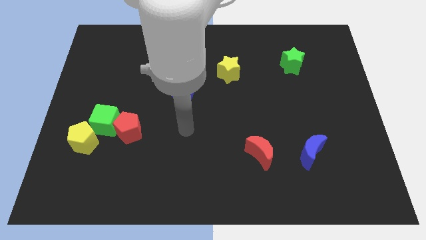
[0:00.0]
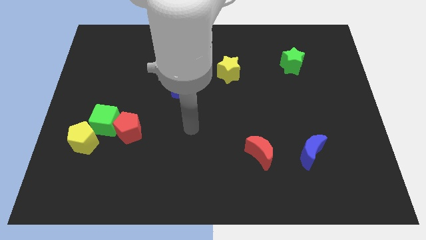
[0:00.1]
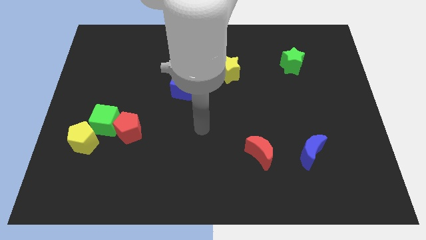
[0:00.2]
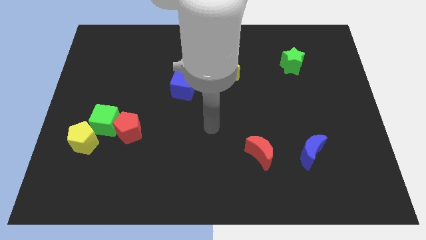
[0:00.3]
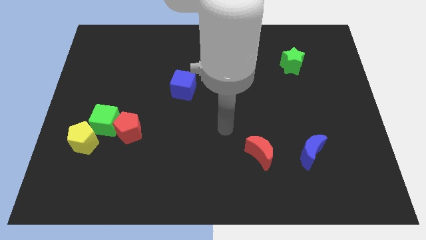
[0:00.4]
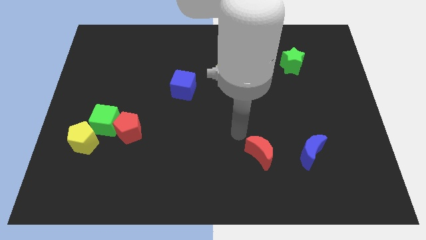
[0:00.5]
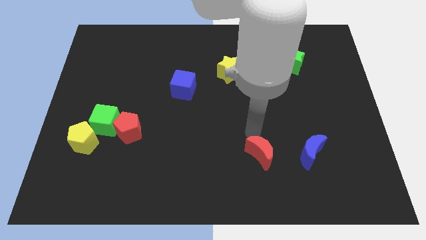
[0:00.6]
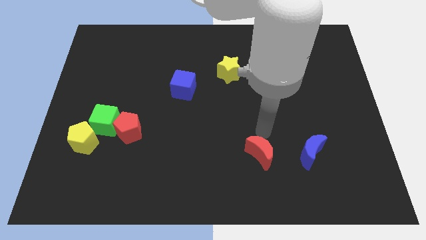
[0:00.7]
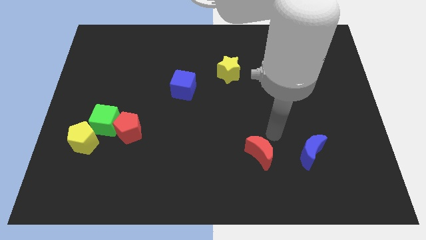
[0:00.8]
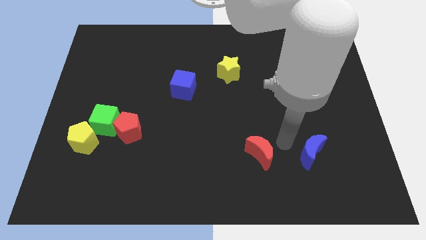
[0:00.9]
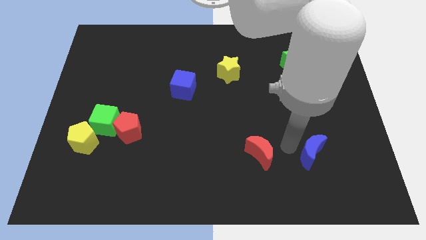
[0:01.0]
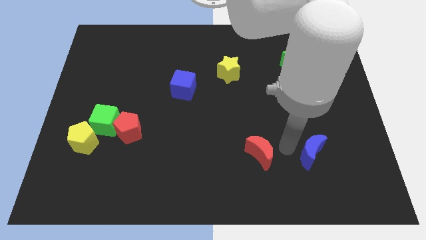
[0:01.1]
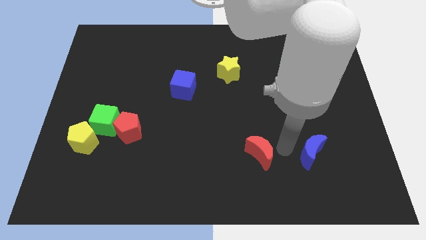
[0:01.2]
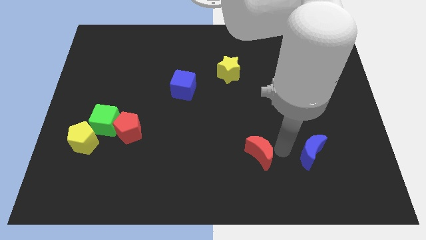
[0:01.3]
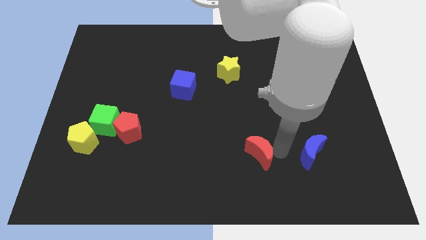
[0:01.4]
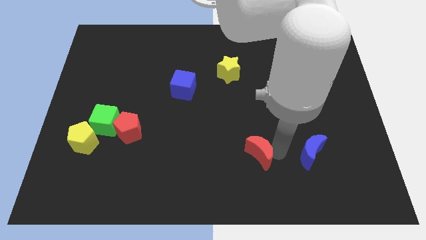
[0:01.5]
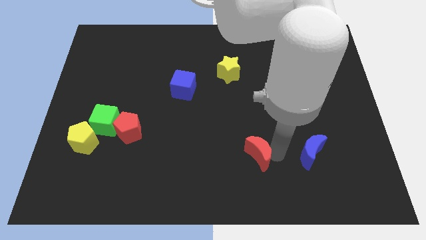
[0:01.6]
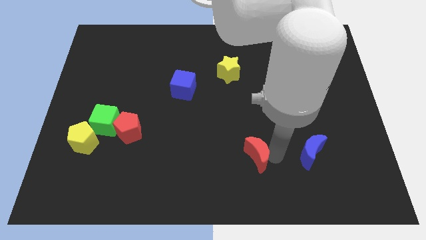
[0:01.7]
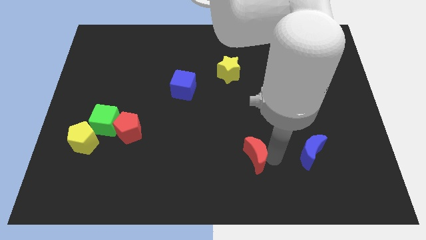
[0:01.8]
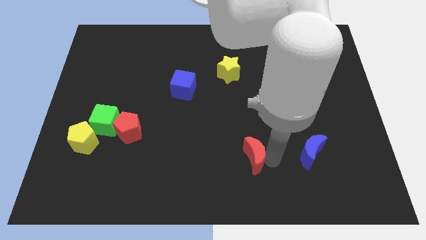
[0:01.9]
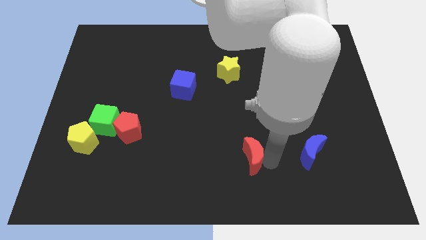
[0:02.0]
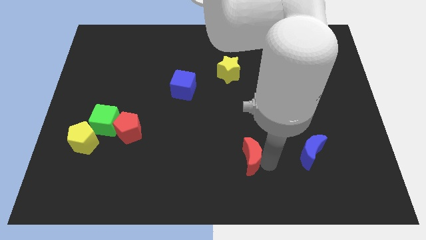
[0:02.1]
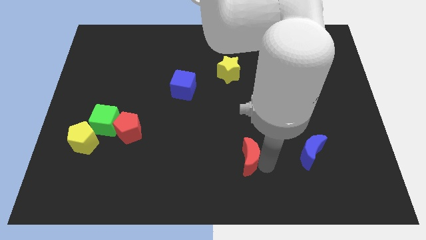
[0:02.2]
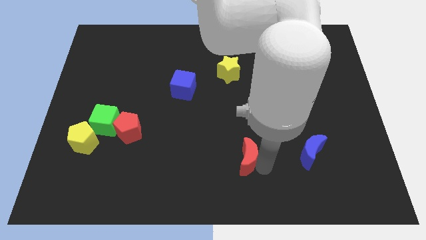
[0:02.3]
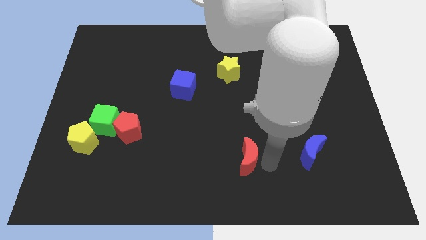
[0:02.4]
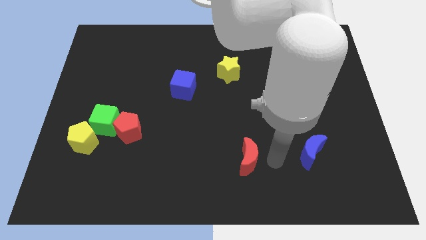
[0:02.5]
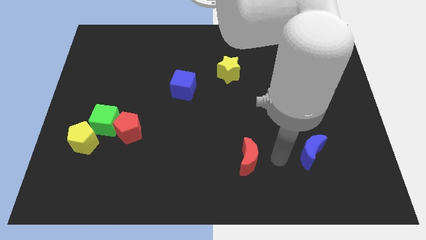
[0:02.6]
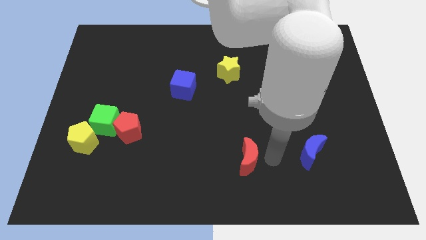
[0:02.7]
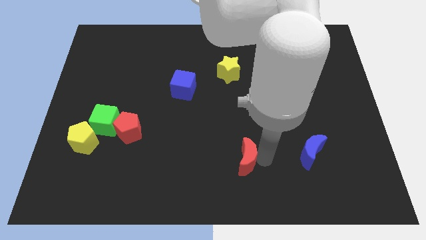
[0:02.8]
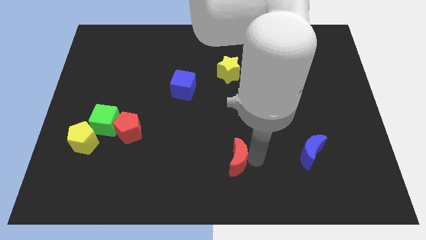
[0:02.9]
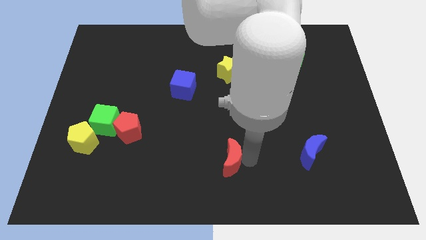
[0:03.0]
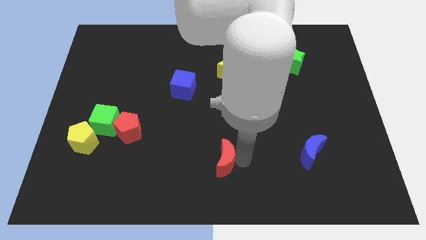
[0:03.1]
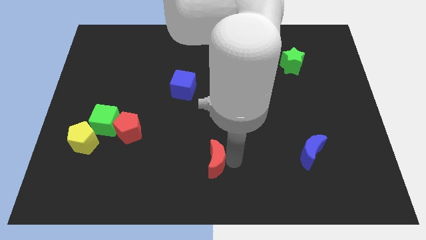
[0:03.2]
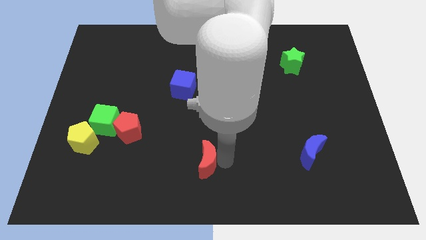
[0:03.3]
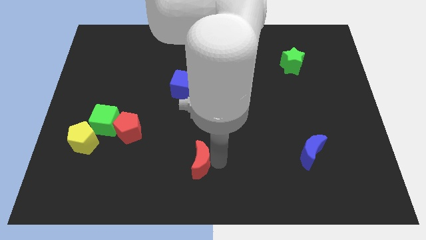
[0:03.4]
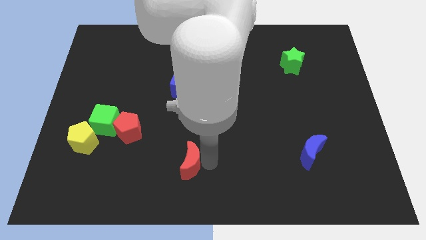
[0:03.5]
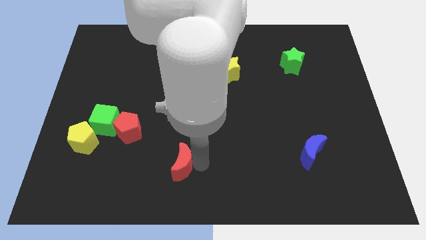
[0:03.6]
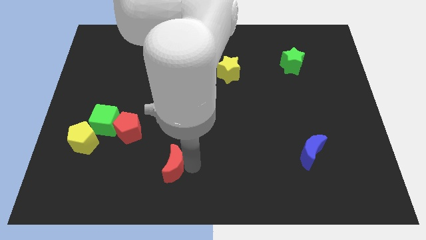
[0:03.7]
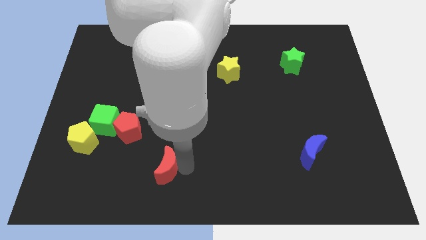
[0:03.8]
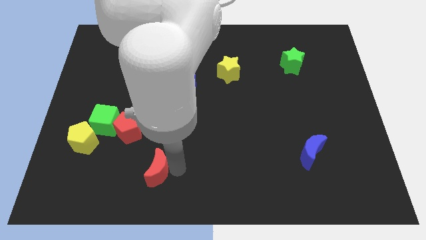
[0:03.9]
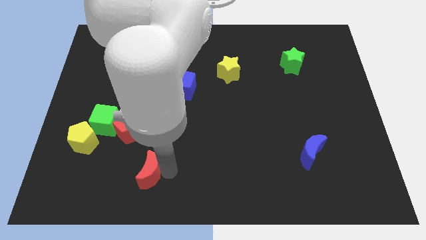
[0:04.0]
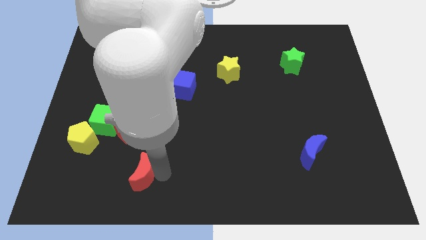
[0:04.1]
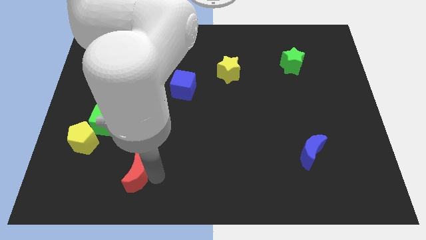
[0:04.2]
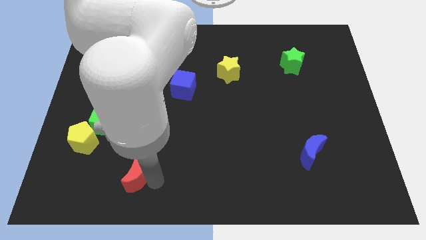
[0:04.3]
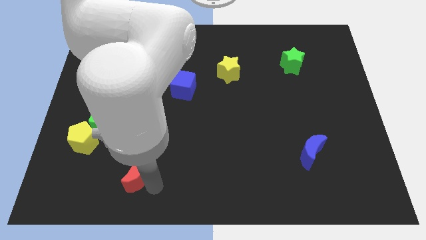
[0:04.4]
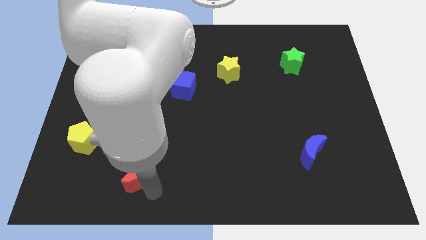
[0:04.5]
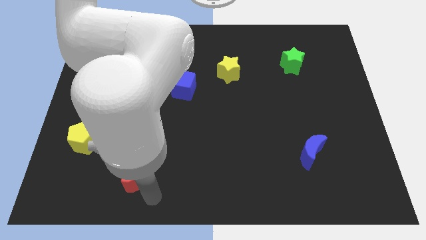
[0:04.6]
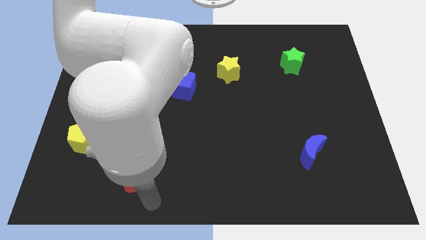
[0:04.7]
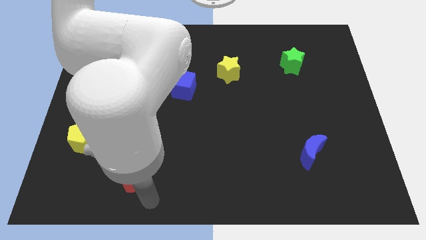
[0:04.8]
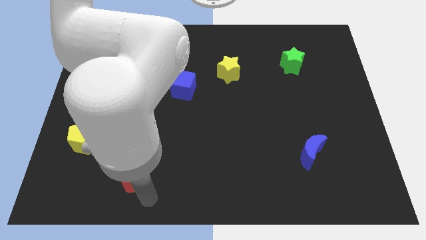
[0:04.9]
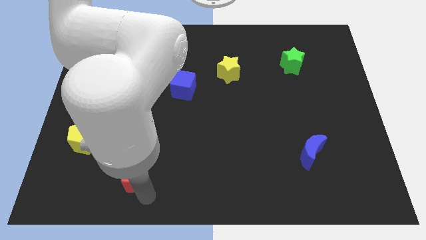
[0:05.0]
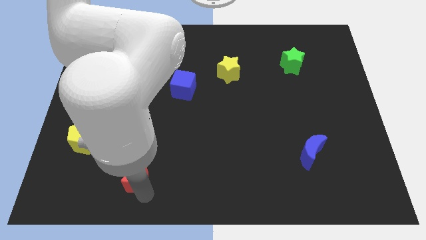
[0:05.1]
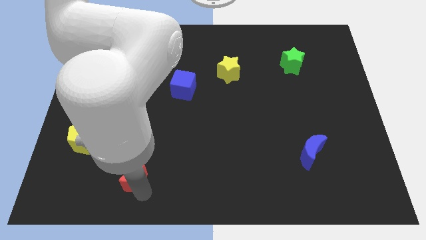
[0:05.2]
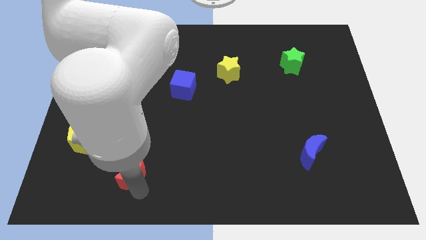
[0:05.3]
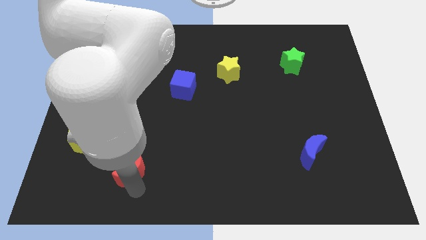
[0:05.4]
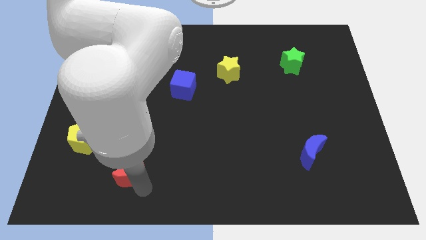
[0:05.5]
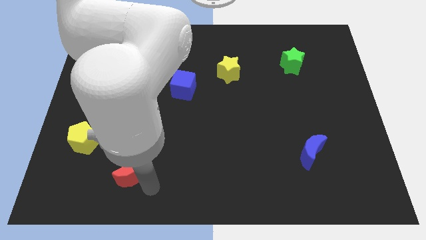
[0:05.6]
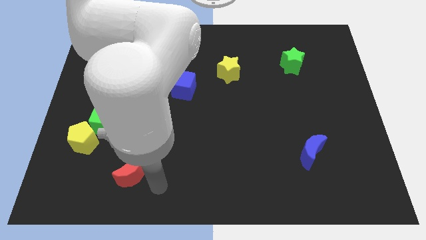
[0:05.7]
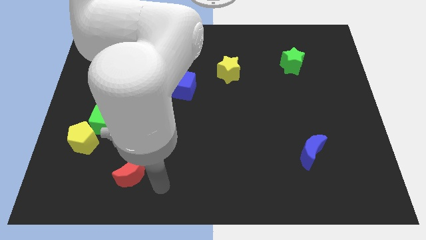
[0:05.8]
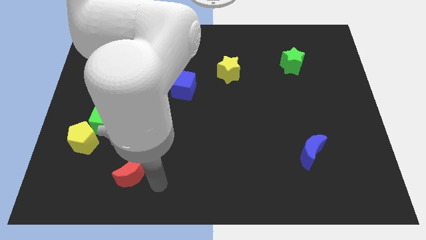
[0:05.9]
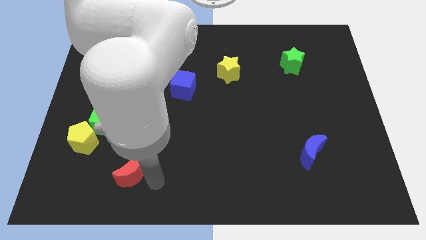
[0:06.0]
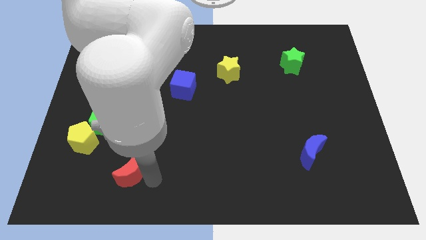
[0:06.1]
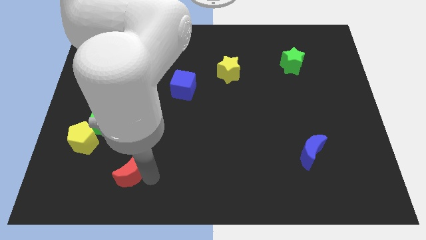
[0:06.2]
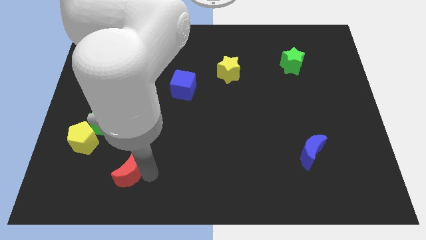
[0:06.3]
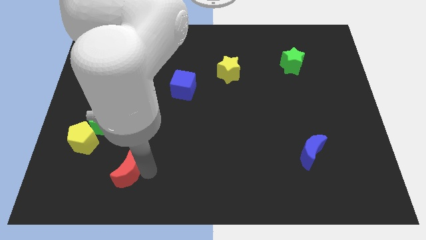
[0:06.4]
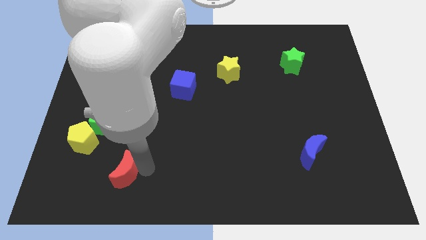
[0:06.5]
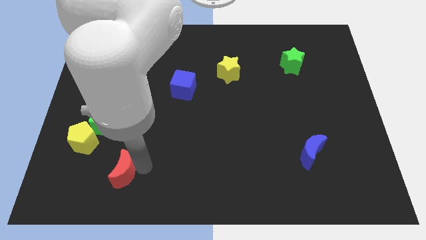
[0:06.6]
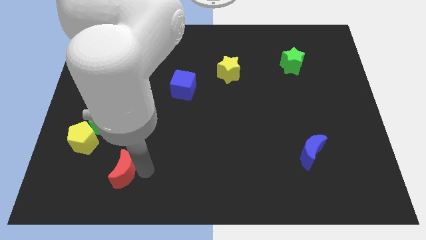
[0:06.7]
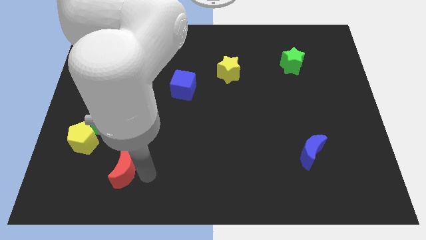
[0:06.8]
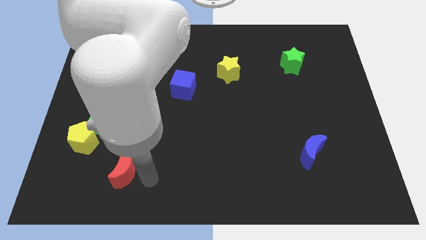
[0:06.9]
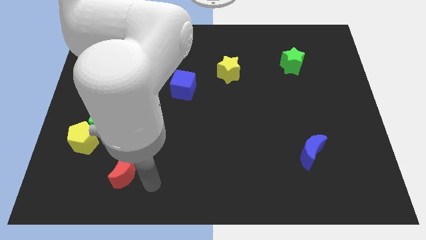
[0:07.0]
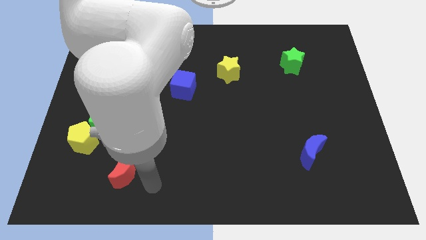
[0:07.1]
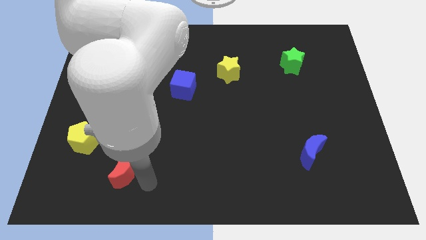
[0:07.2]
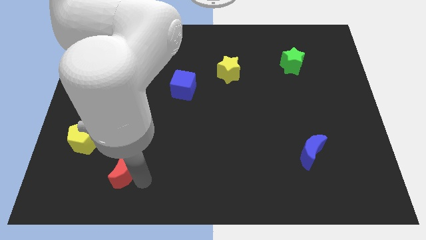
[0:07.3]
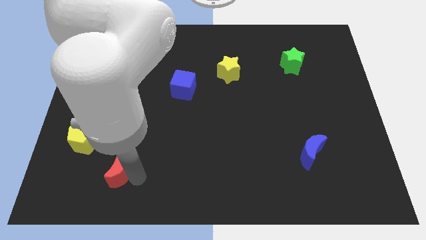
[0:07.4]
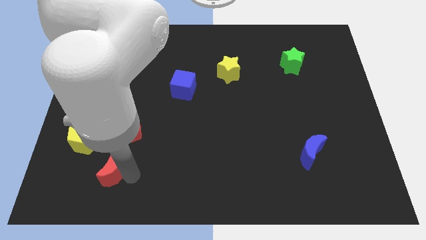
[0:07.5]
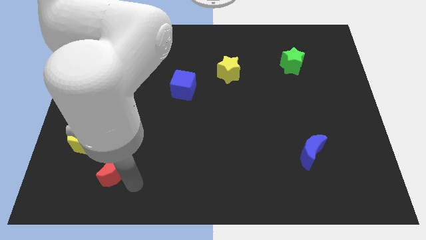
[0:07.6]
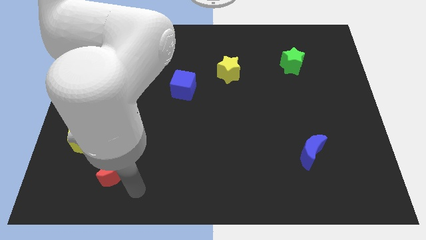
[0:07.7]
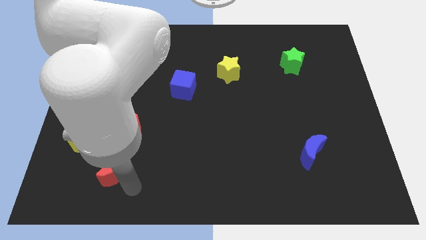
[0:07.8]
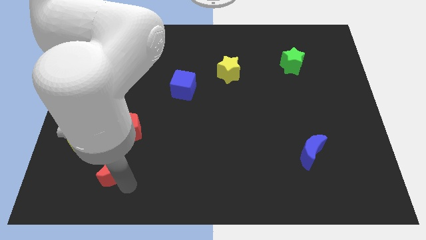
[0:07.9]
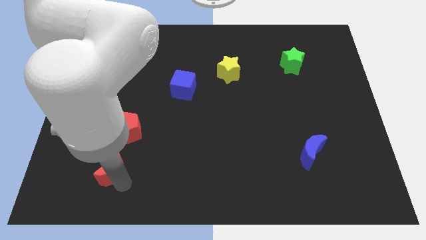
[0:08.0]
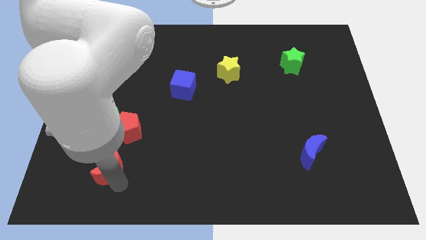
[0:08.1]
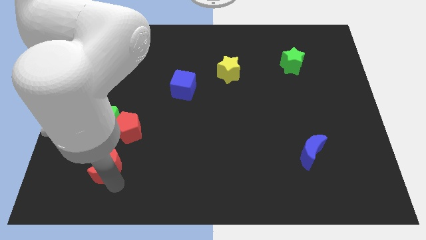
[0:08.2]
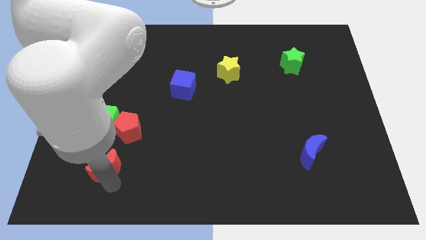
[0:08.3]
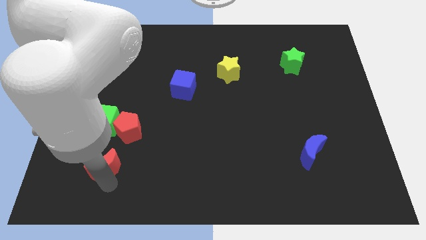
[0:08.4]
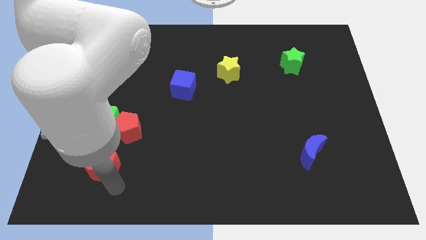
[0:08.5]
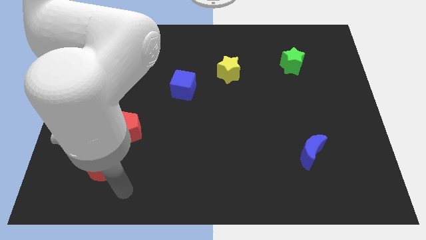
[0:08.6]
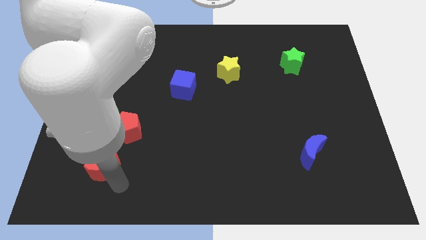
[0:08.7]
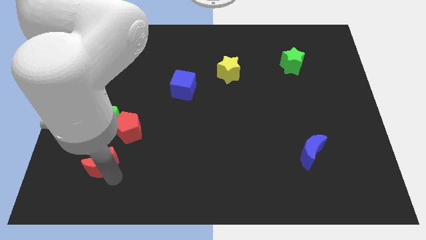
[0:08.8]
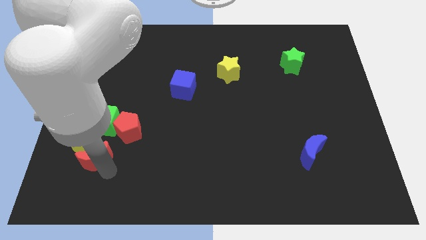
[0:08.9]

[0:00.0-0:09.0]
put the red moon close to the yellow pentagon
